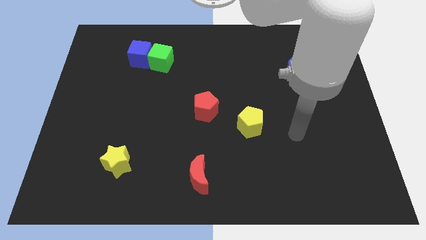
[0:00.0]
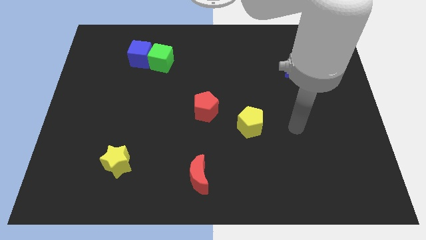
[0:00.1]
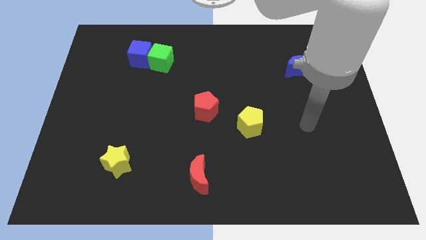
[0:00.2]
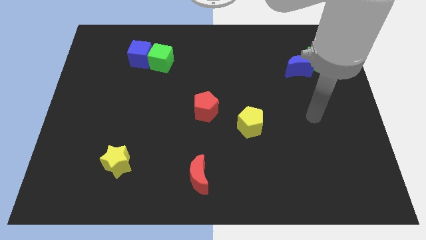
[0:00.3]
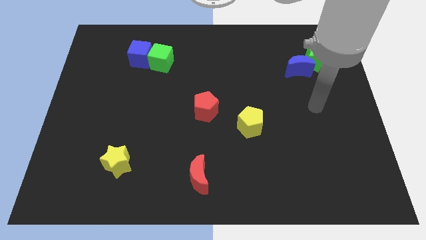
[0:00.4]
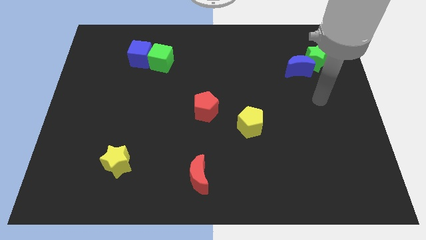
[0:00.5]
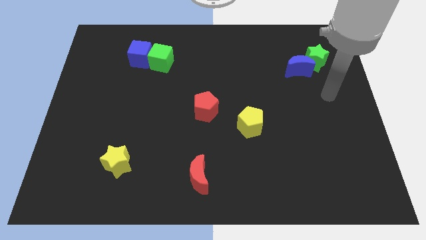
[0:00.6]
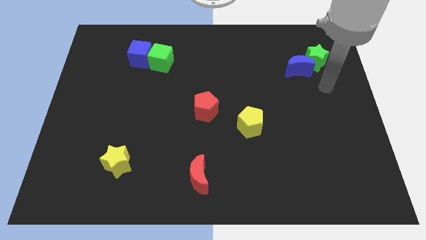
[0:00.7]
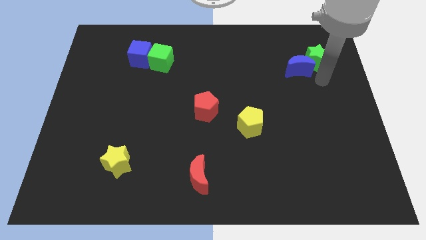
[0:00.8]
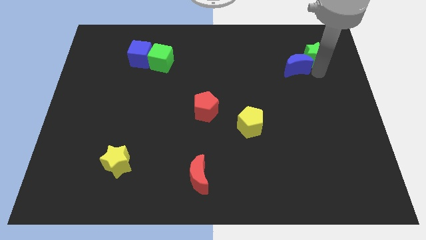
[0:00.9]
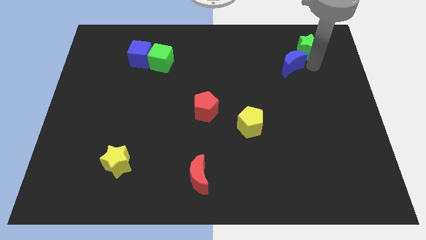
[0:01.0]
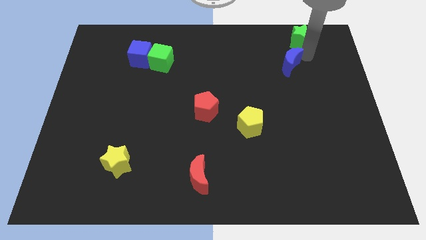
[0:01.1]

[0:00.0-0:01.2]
pull the blue moon apart from the green star

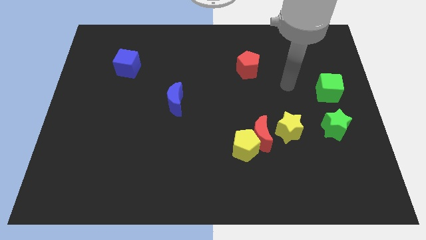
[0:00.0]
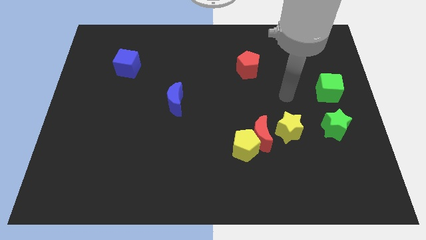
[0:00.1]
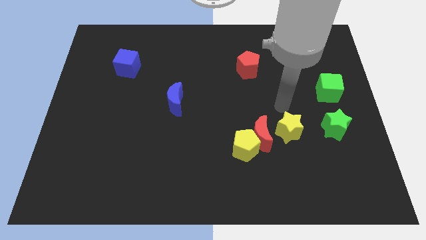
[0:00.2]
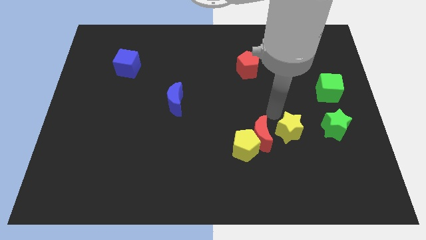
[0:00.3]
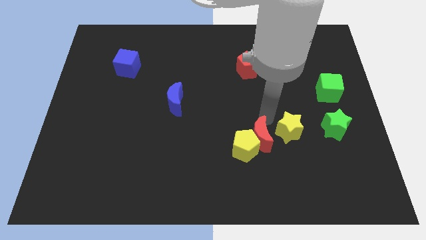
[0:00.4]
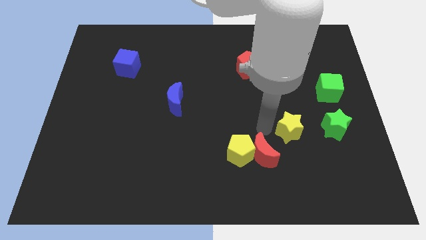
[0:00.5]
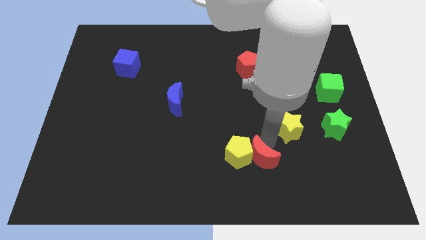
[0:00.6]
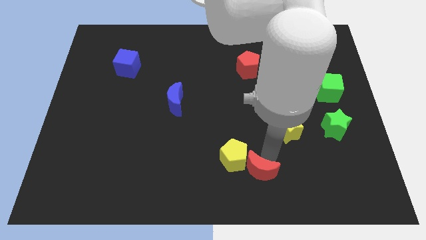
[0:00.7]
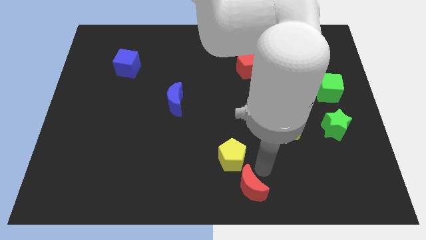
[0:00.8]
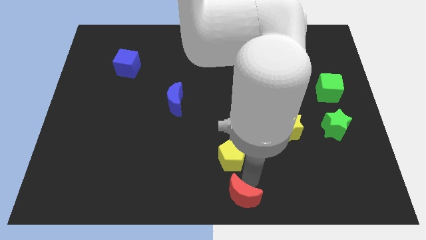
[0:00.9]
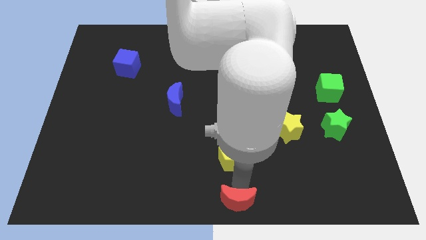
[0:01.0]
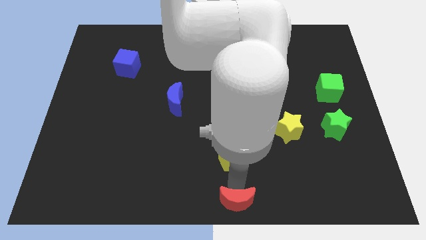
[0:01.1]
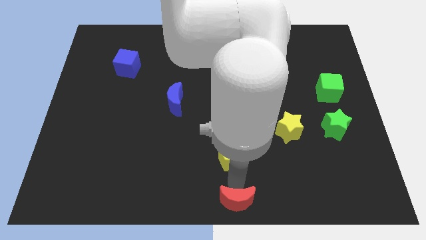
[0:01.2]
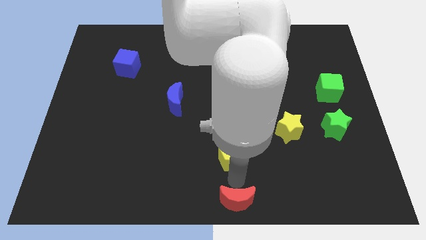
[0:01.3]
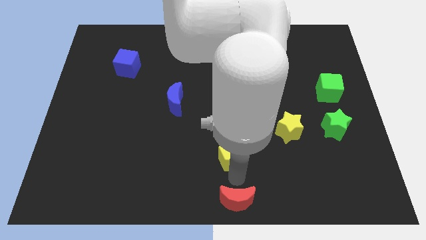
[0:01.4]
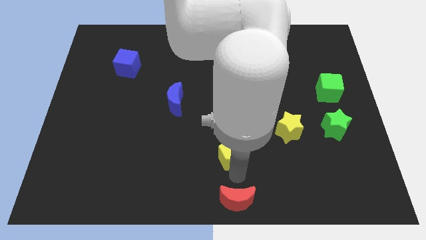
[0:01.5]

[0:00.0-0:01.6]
move the yellow pentagon away from the red moon

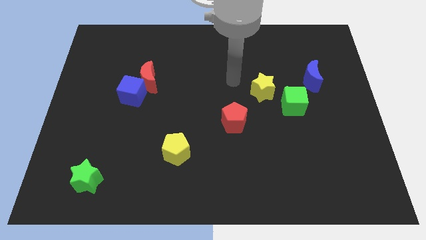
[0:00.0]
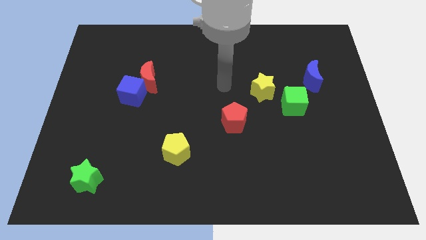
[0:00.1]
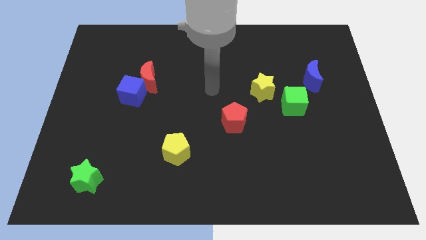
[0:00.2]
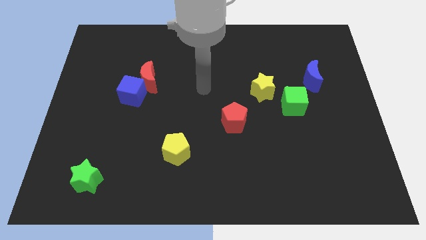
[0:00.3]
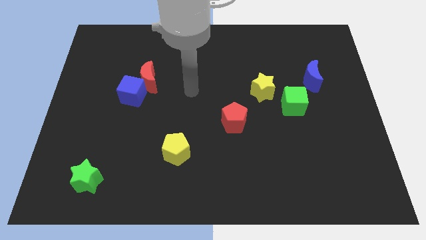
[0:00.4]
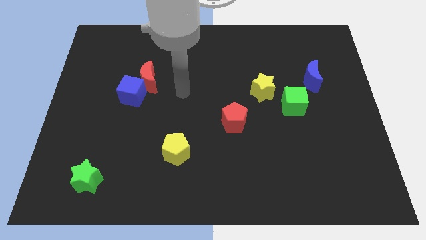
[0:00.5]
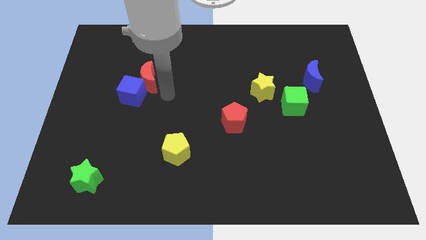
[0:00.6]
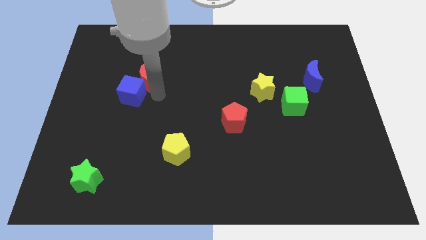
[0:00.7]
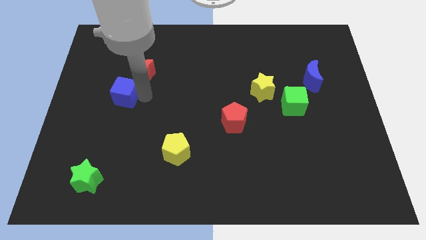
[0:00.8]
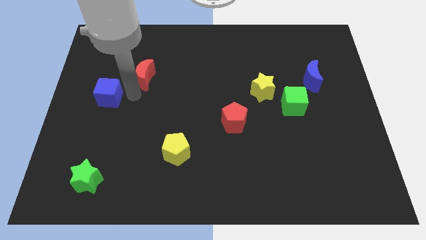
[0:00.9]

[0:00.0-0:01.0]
move the red moon away from the blue cube

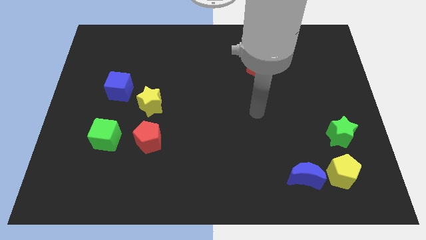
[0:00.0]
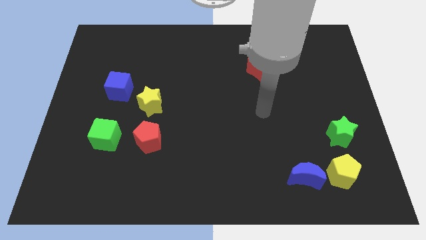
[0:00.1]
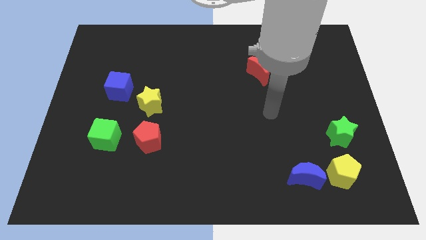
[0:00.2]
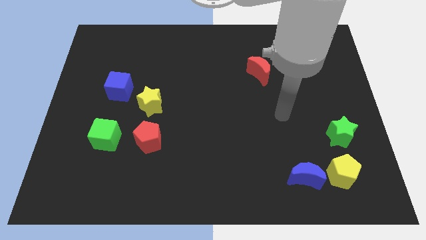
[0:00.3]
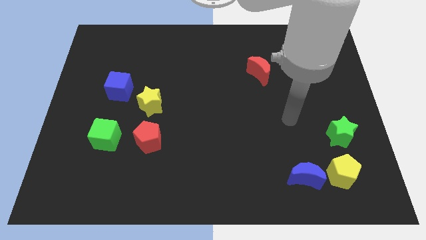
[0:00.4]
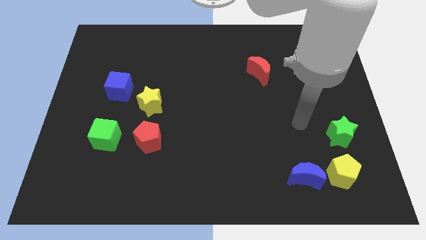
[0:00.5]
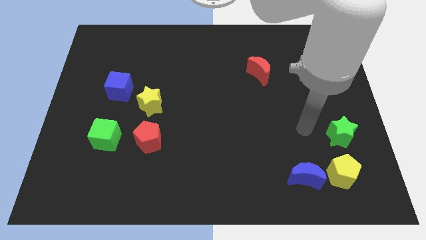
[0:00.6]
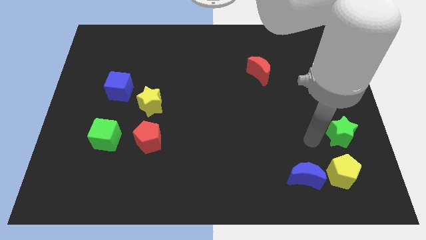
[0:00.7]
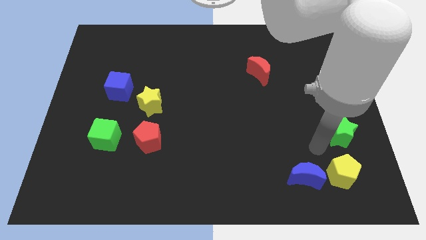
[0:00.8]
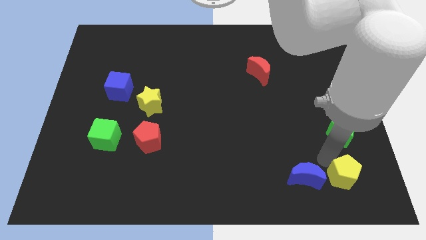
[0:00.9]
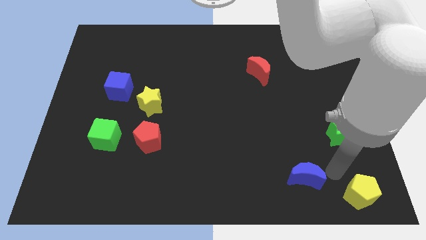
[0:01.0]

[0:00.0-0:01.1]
move the blue moon away from the yellow pentagon

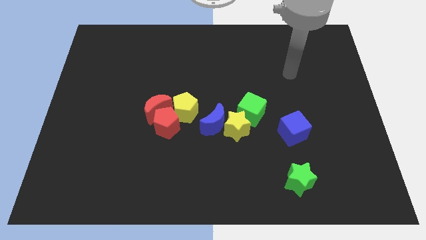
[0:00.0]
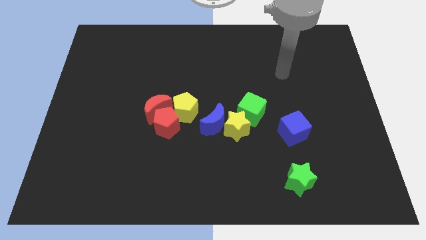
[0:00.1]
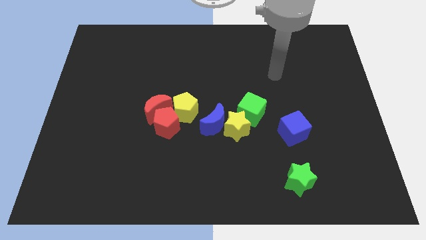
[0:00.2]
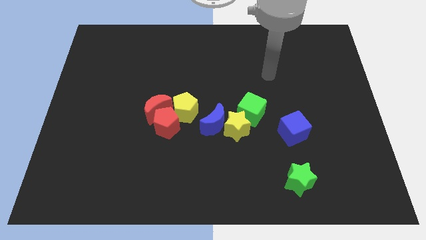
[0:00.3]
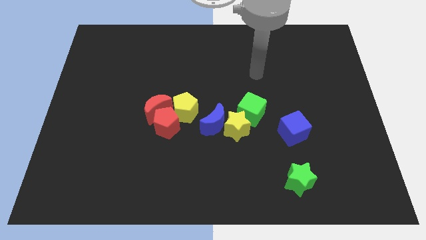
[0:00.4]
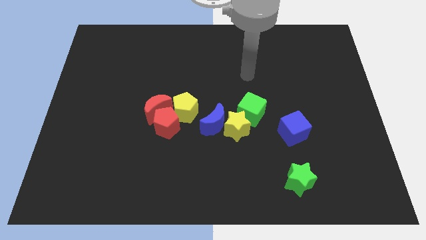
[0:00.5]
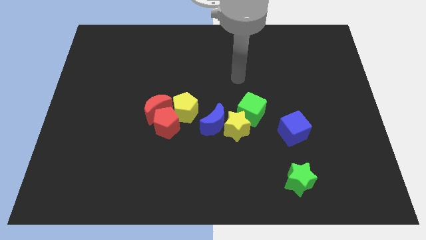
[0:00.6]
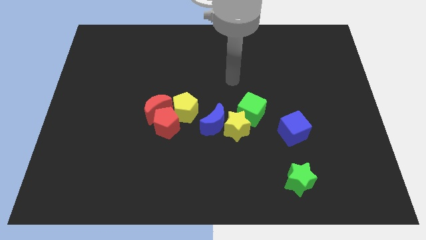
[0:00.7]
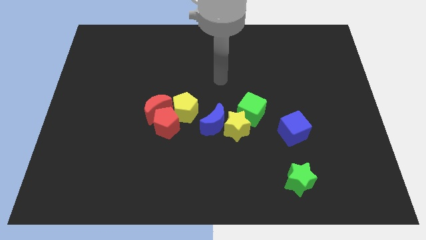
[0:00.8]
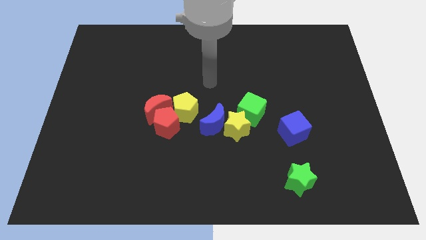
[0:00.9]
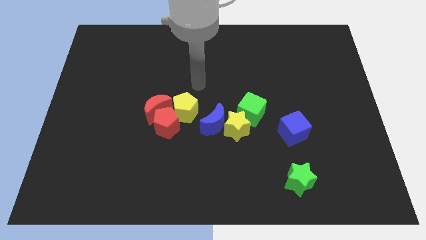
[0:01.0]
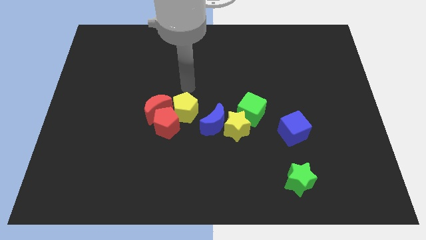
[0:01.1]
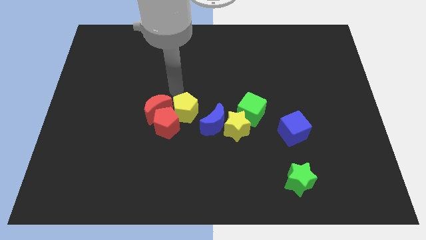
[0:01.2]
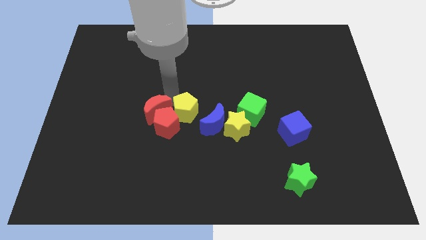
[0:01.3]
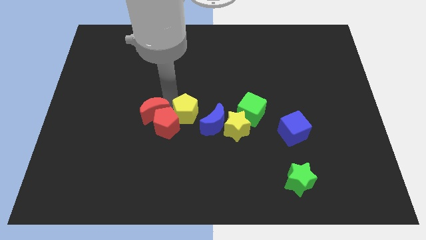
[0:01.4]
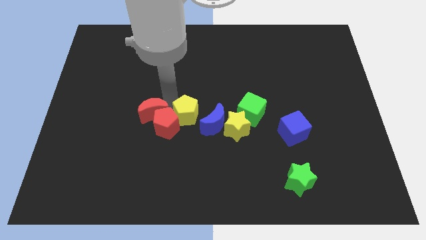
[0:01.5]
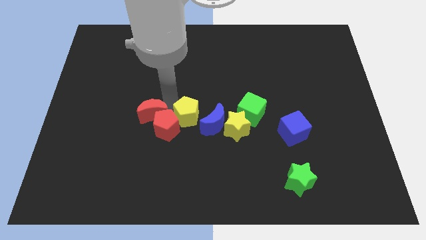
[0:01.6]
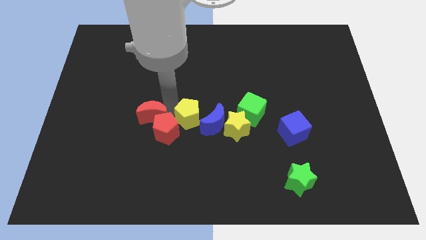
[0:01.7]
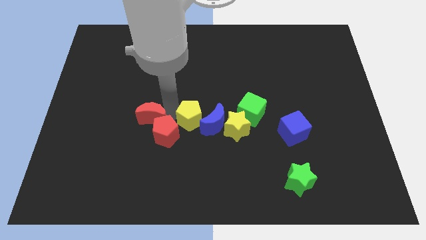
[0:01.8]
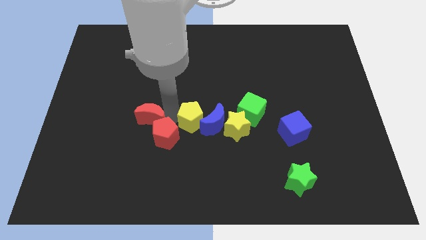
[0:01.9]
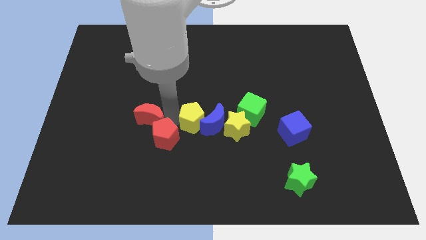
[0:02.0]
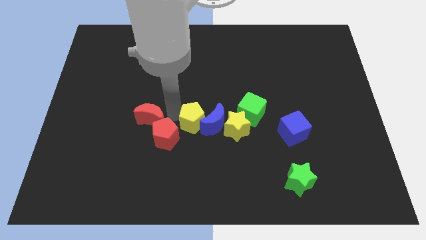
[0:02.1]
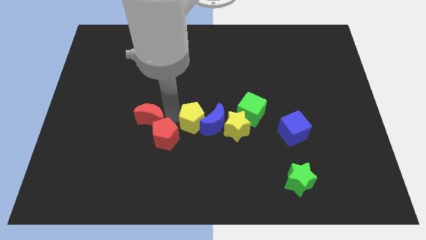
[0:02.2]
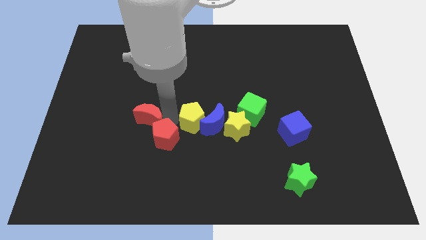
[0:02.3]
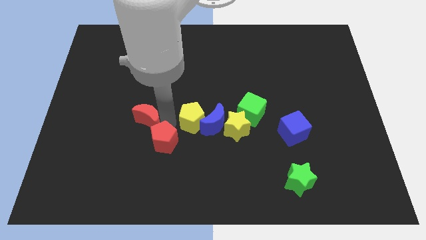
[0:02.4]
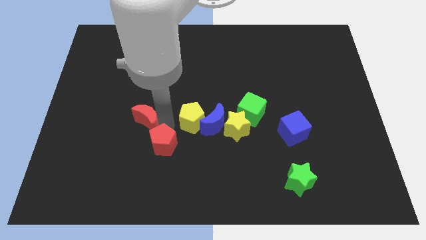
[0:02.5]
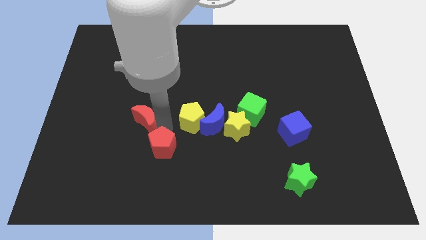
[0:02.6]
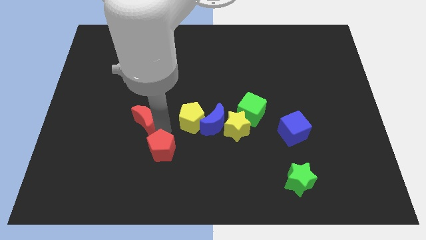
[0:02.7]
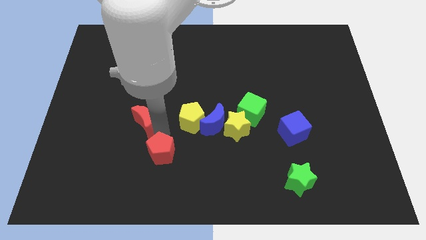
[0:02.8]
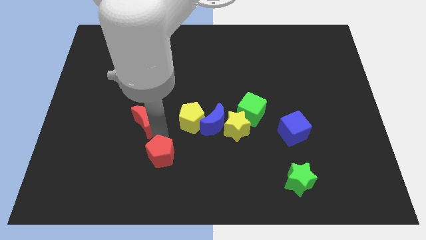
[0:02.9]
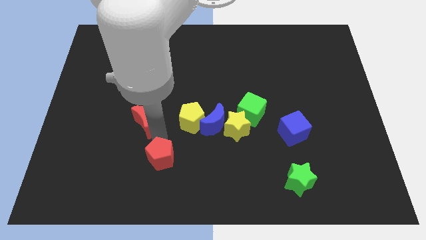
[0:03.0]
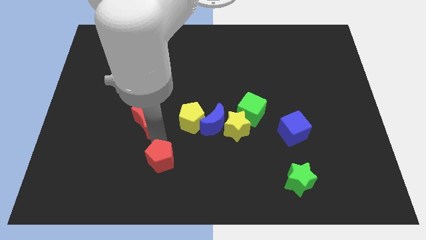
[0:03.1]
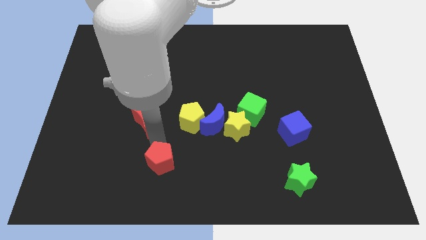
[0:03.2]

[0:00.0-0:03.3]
move the red pentagon away from the red moon and yellow pentagon

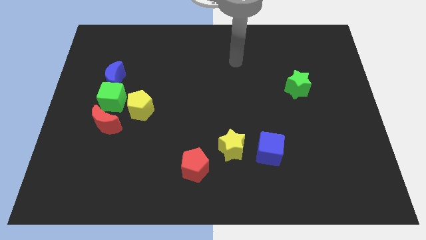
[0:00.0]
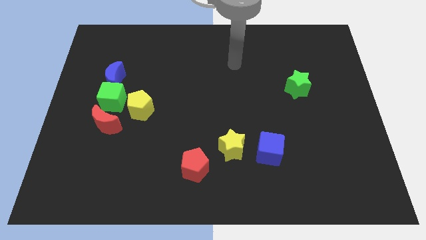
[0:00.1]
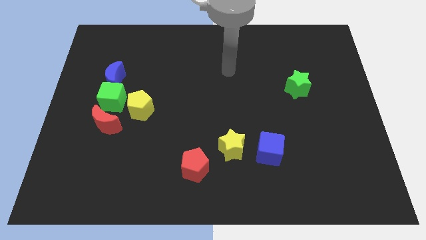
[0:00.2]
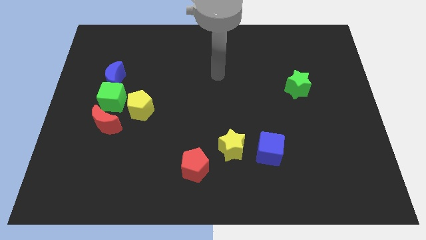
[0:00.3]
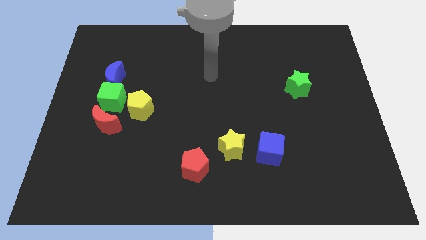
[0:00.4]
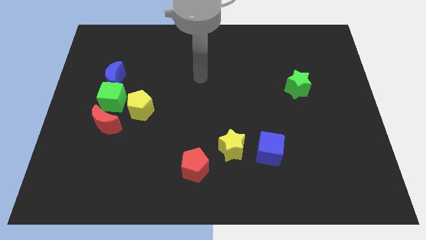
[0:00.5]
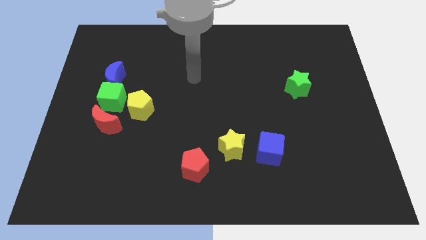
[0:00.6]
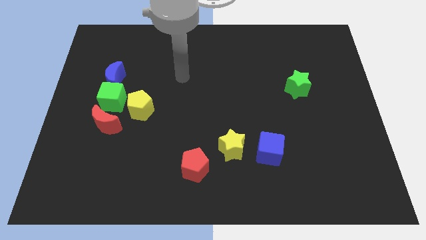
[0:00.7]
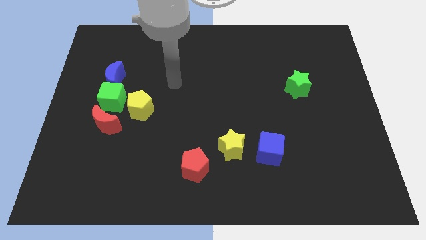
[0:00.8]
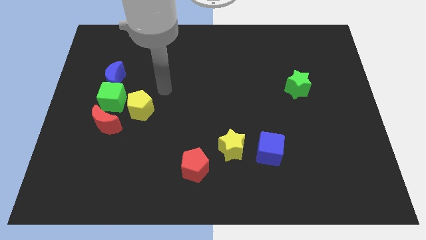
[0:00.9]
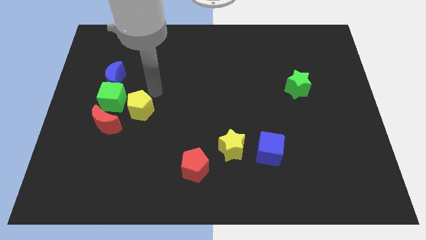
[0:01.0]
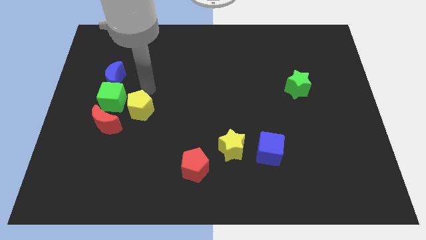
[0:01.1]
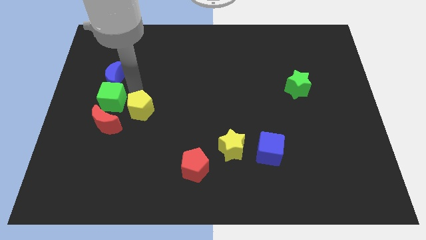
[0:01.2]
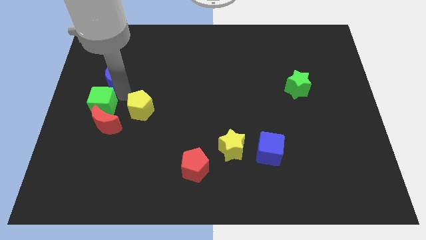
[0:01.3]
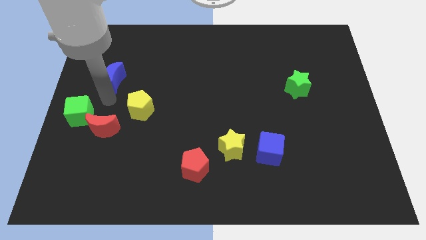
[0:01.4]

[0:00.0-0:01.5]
move the blue moon away from the green cube
